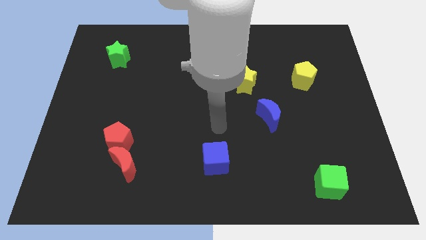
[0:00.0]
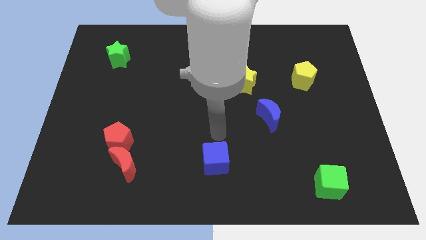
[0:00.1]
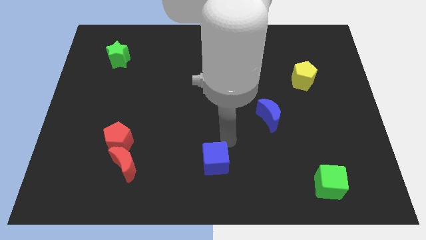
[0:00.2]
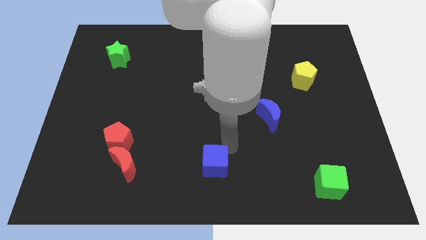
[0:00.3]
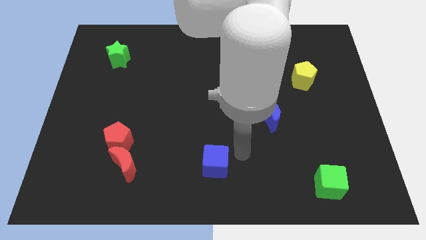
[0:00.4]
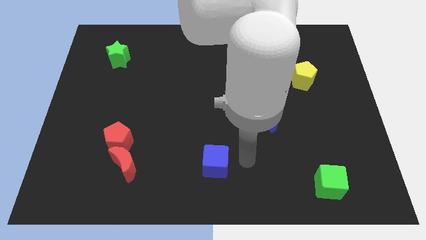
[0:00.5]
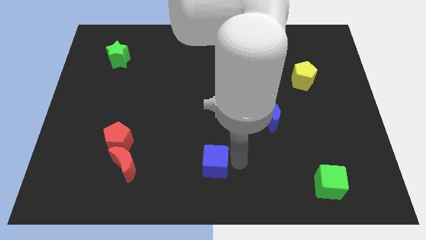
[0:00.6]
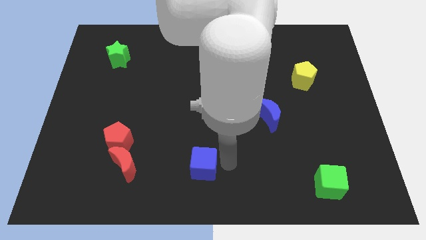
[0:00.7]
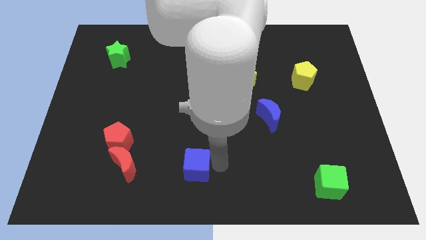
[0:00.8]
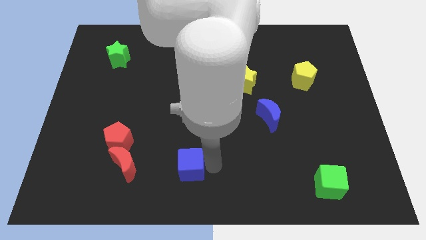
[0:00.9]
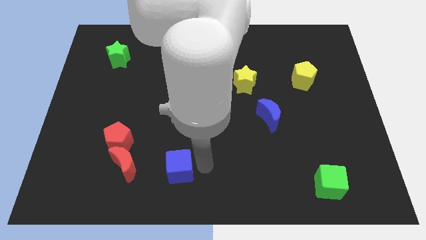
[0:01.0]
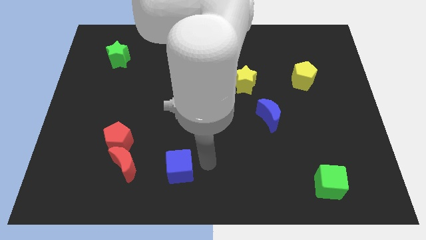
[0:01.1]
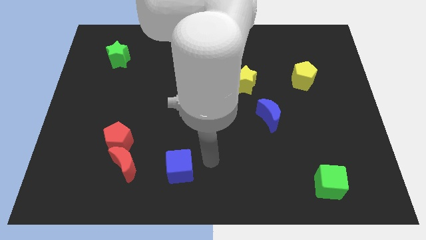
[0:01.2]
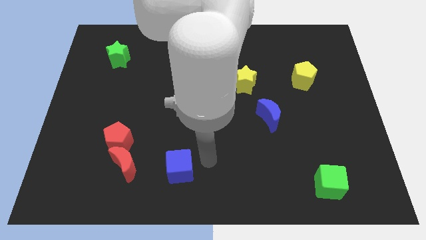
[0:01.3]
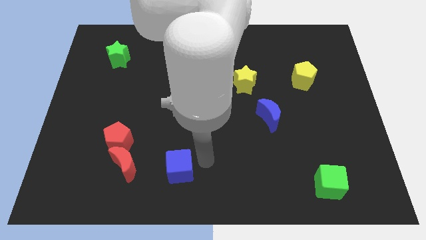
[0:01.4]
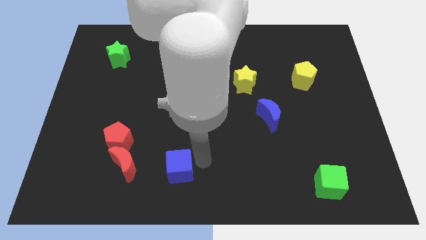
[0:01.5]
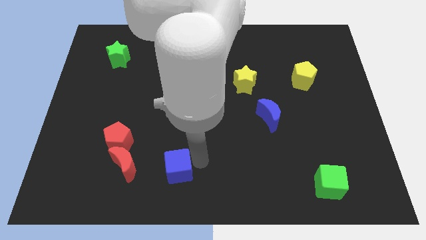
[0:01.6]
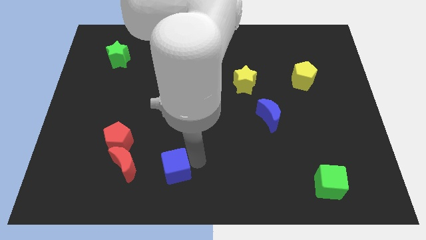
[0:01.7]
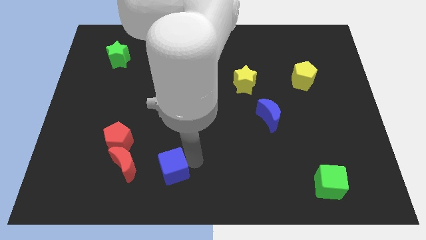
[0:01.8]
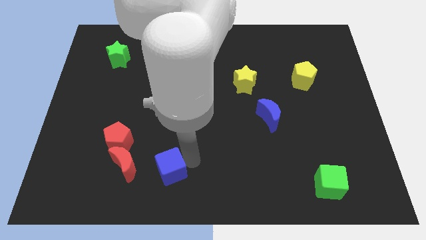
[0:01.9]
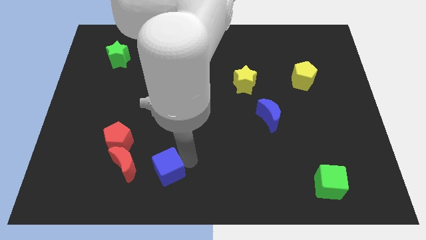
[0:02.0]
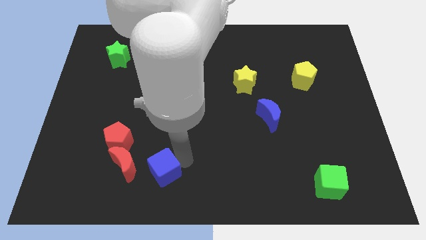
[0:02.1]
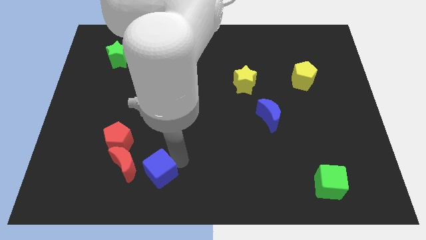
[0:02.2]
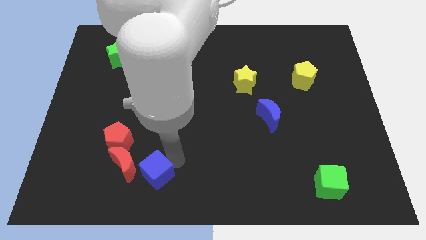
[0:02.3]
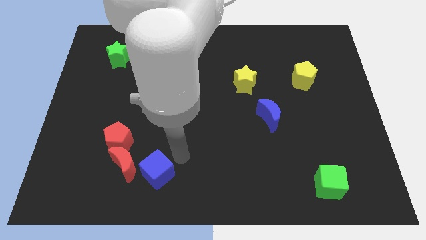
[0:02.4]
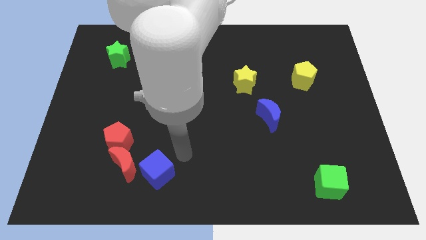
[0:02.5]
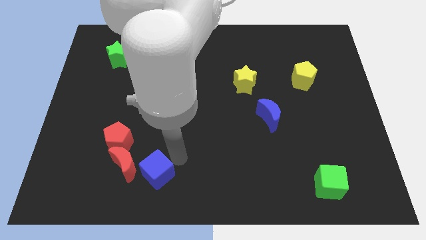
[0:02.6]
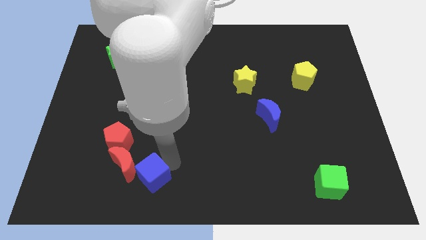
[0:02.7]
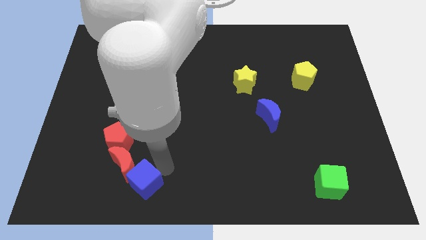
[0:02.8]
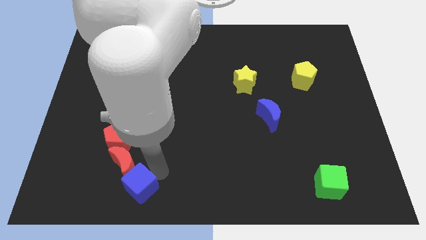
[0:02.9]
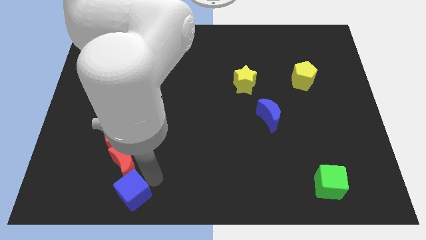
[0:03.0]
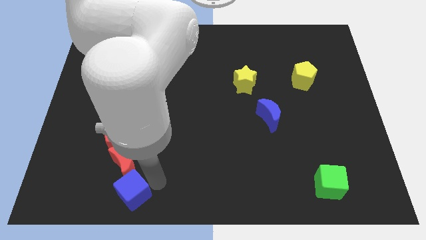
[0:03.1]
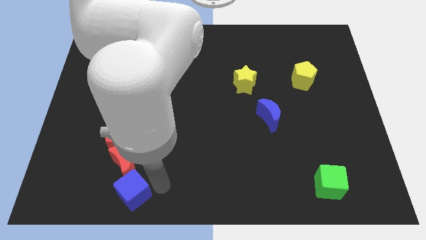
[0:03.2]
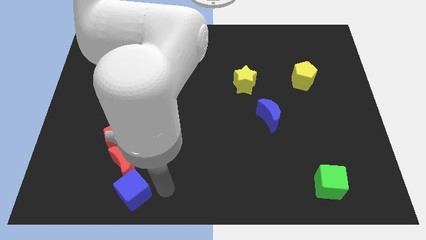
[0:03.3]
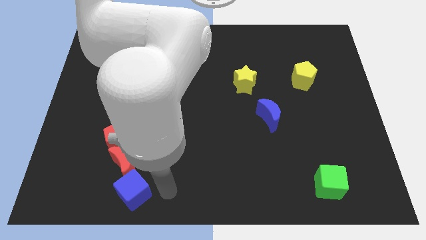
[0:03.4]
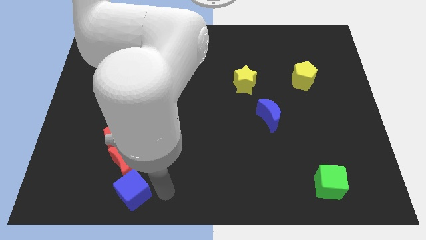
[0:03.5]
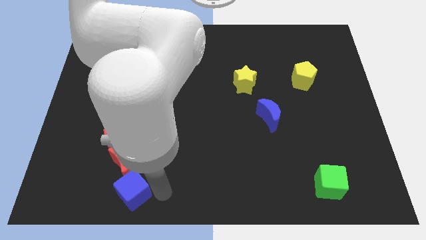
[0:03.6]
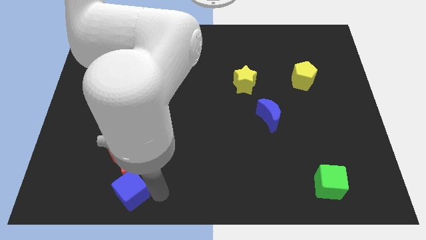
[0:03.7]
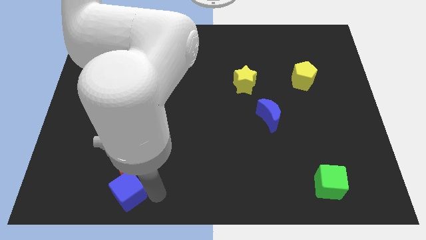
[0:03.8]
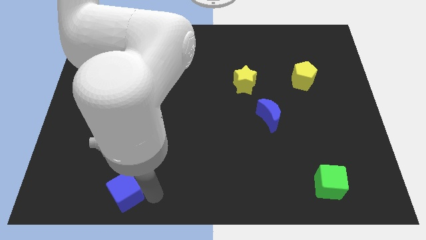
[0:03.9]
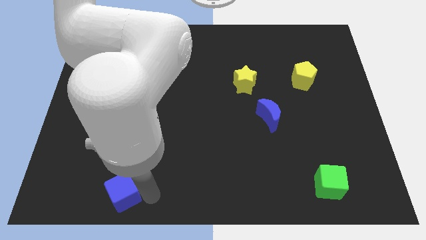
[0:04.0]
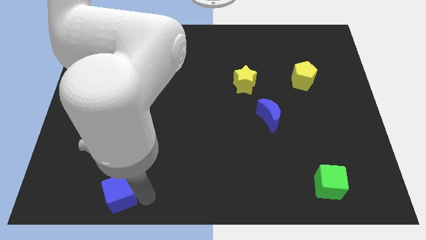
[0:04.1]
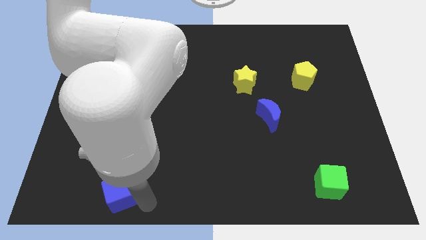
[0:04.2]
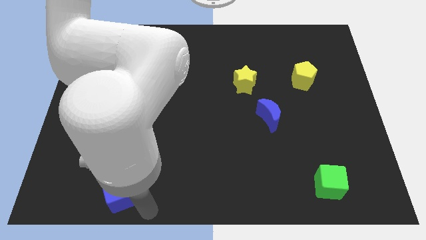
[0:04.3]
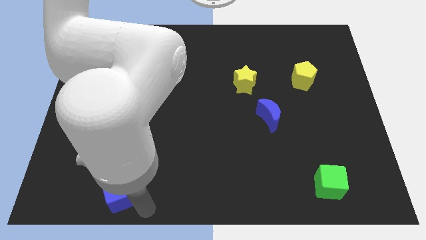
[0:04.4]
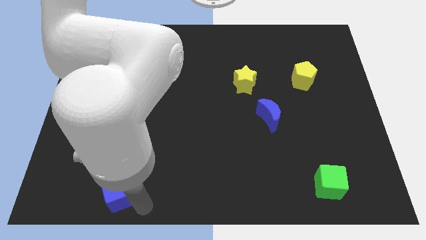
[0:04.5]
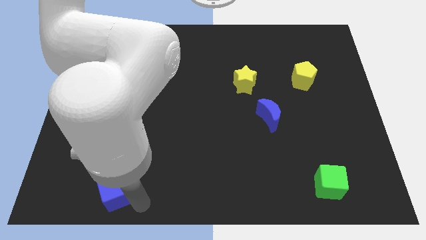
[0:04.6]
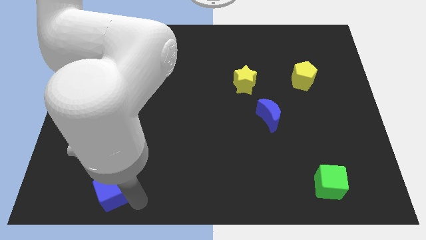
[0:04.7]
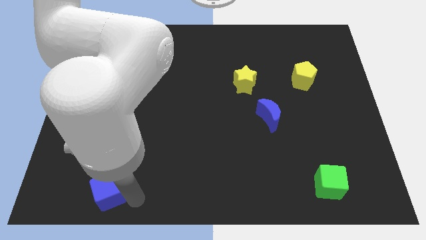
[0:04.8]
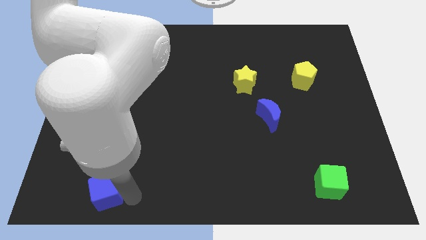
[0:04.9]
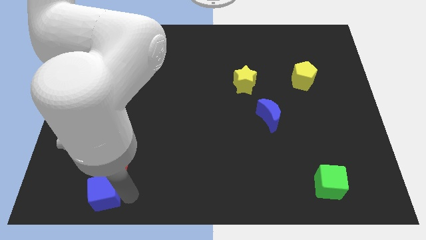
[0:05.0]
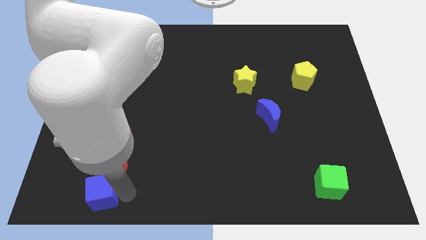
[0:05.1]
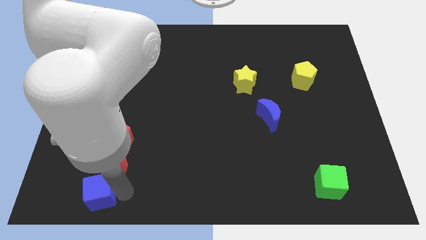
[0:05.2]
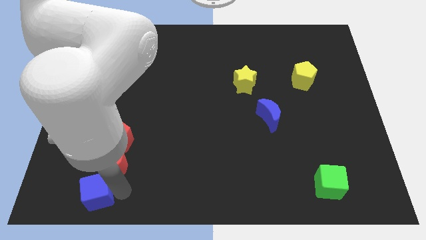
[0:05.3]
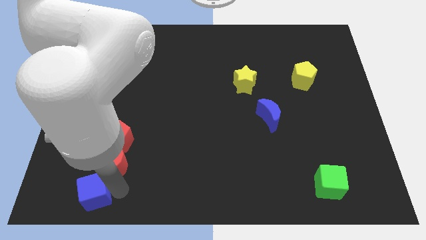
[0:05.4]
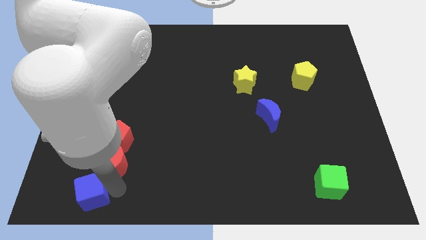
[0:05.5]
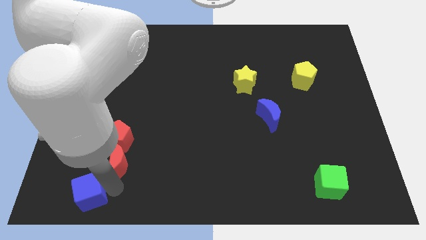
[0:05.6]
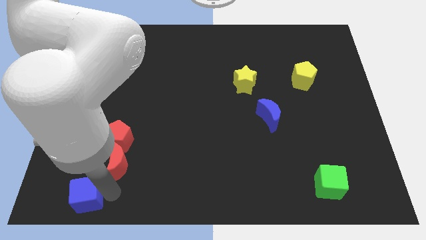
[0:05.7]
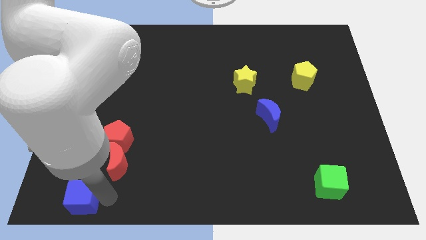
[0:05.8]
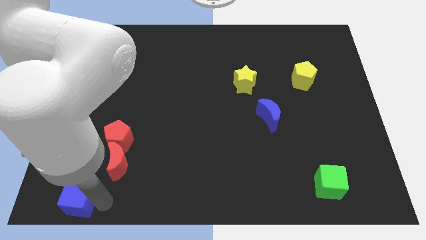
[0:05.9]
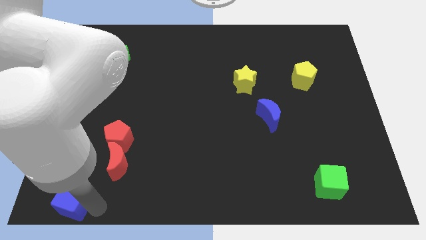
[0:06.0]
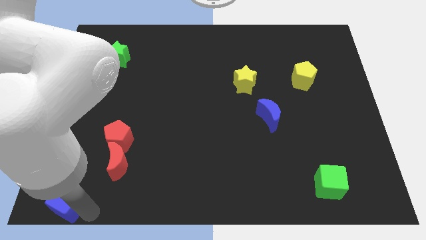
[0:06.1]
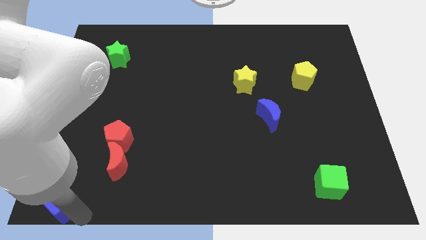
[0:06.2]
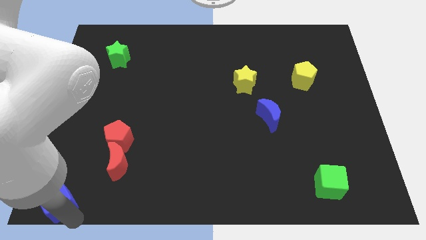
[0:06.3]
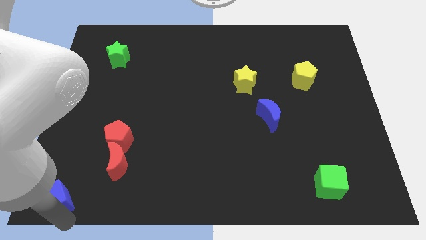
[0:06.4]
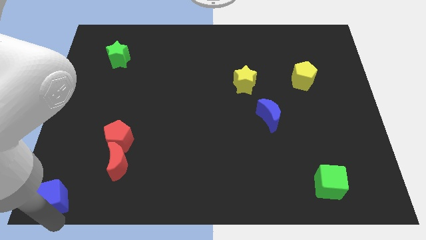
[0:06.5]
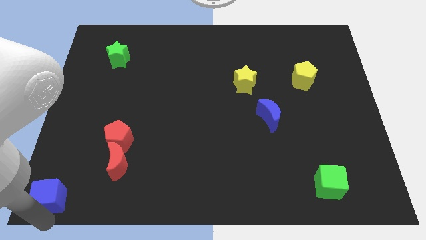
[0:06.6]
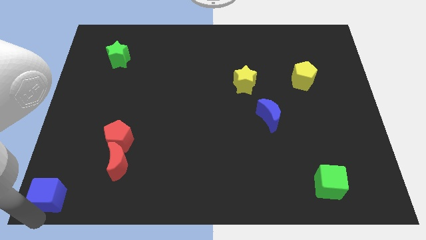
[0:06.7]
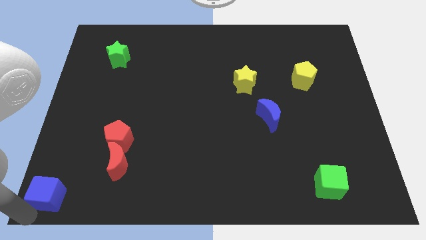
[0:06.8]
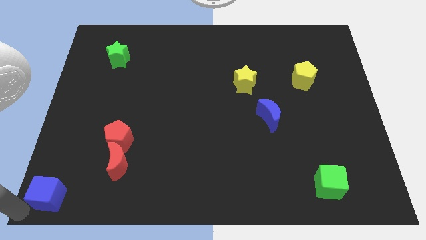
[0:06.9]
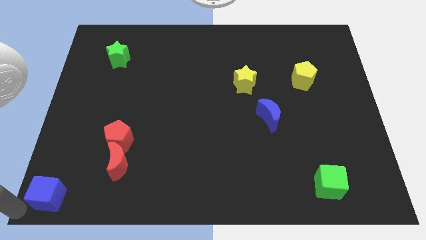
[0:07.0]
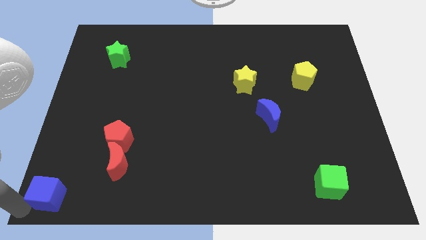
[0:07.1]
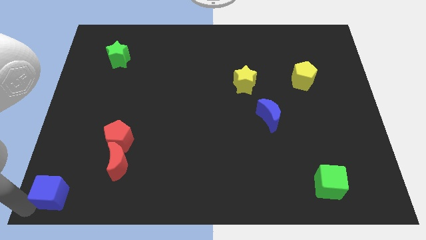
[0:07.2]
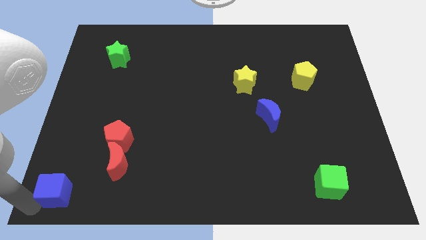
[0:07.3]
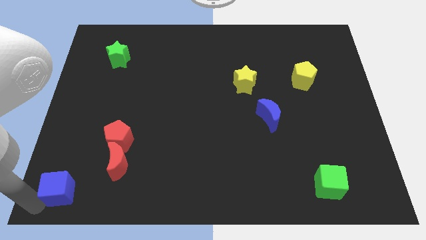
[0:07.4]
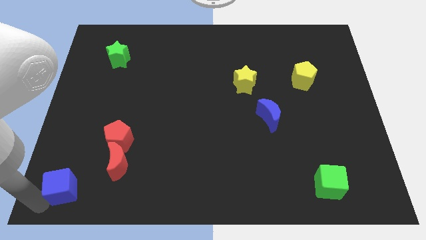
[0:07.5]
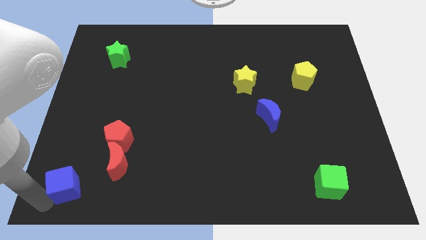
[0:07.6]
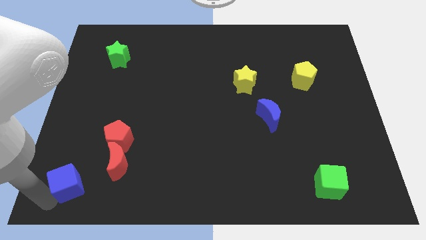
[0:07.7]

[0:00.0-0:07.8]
move the blue cube just left of the red moon
